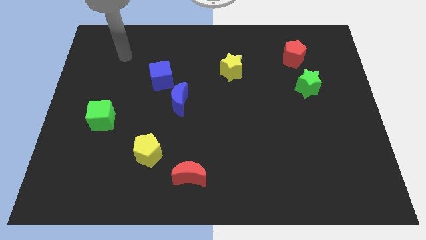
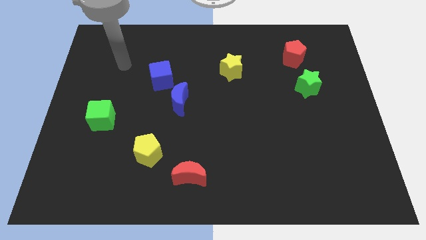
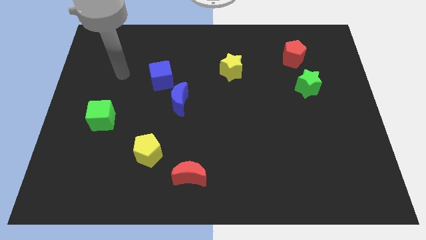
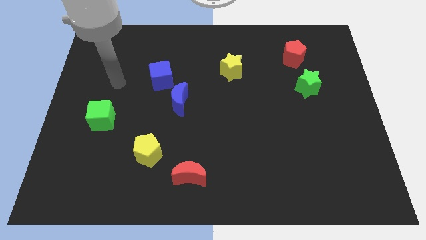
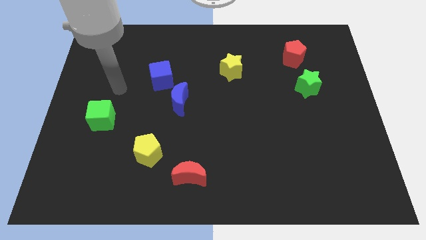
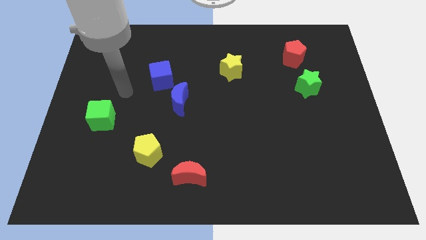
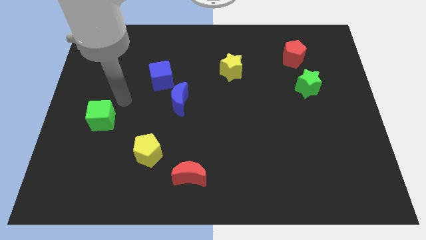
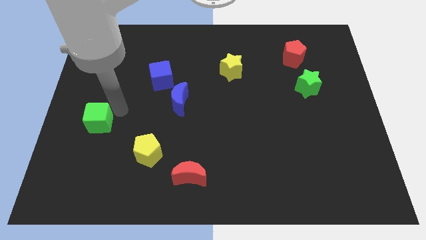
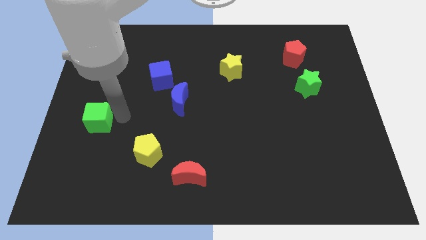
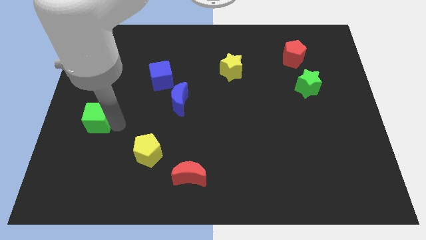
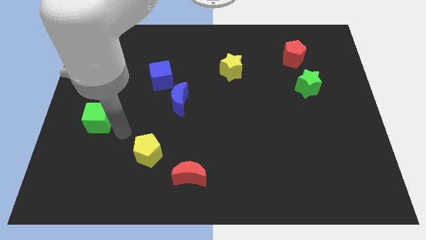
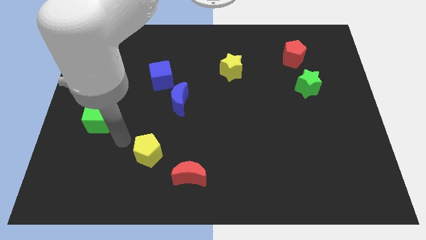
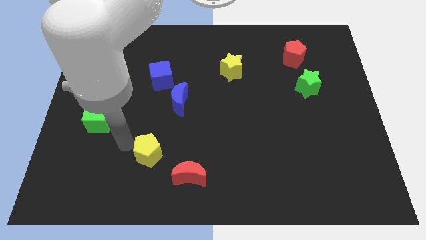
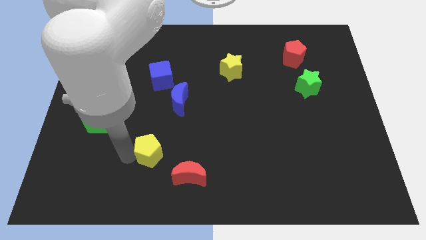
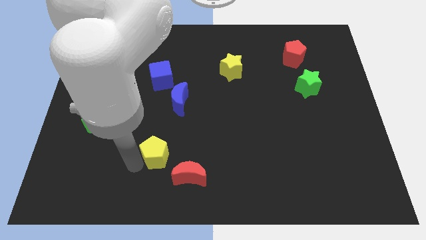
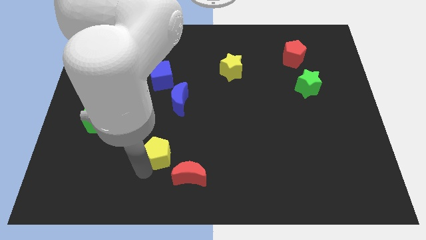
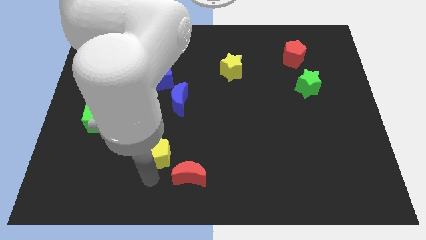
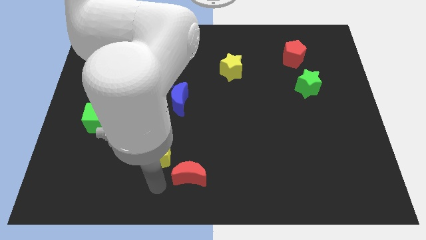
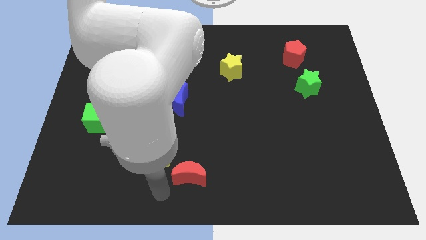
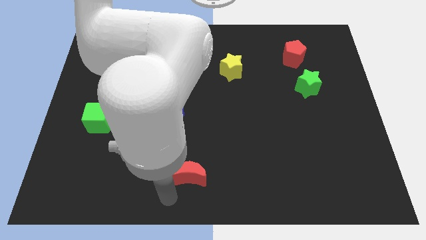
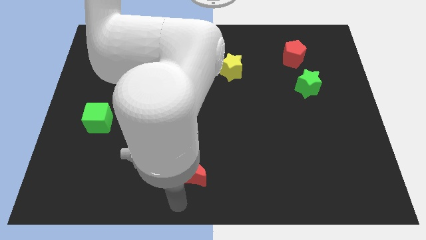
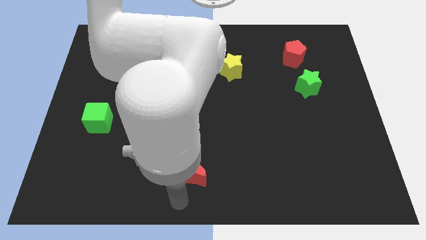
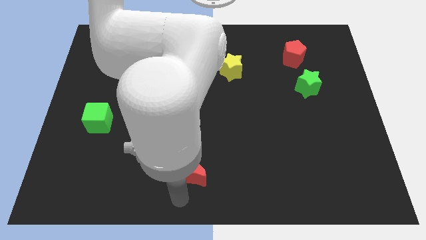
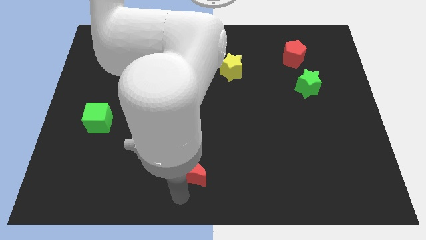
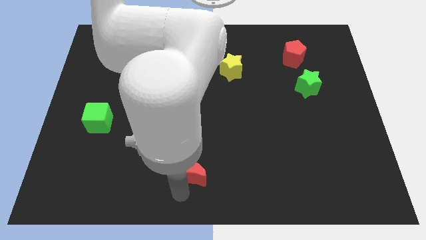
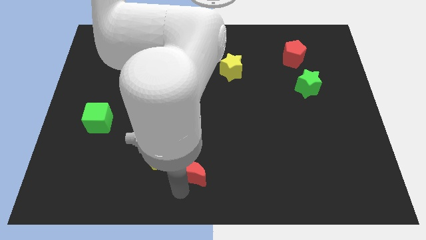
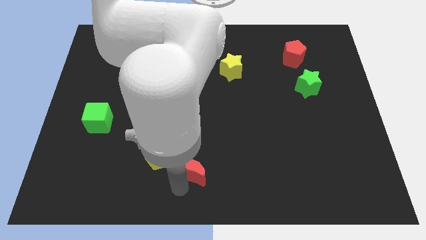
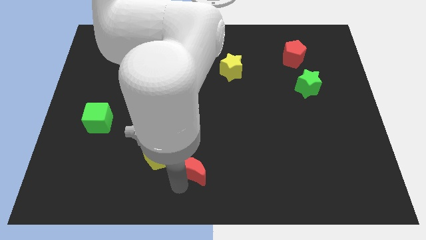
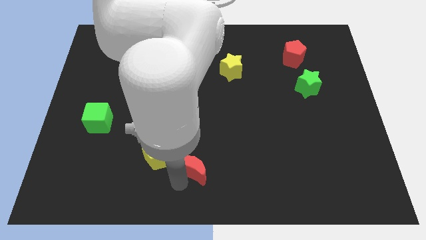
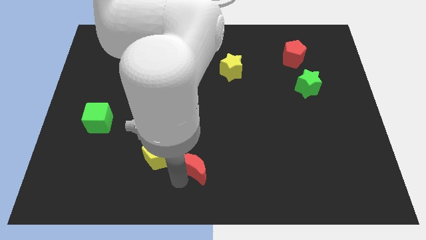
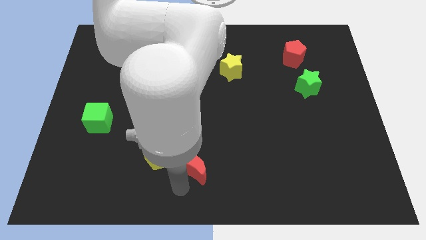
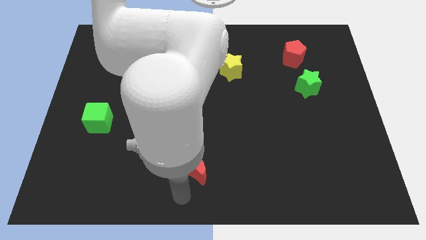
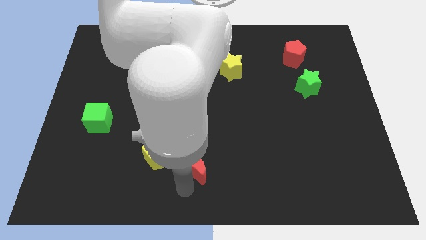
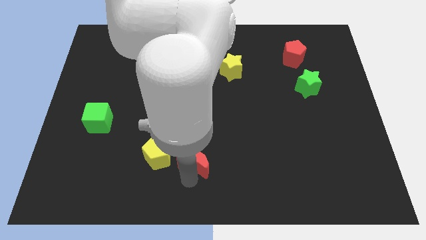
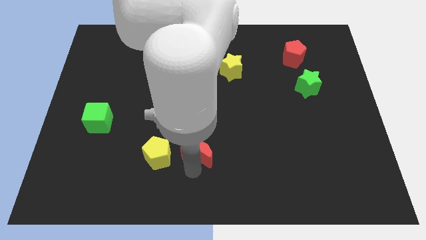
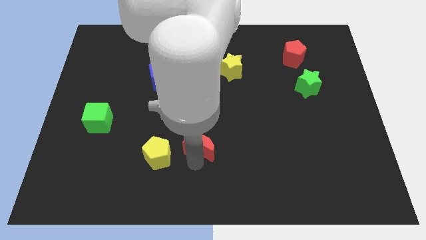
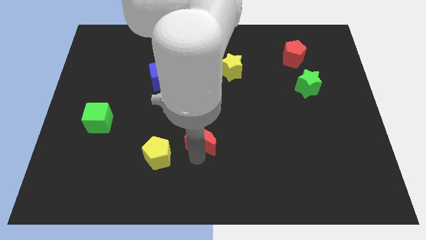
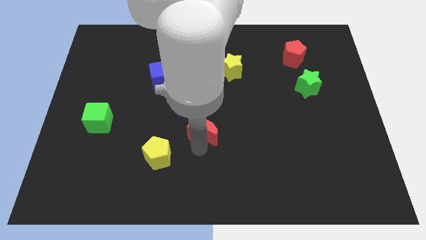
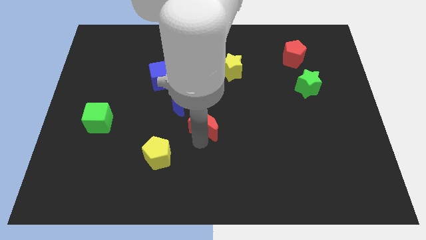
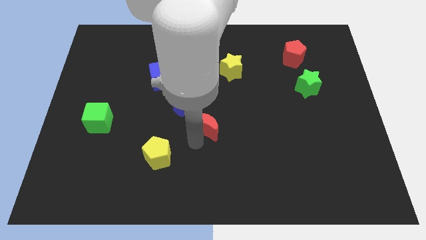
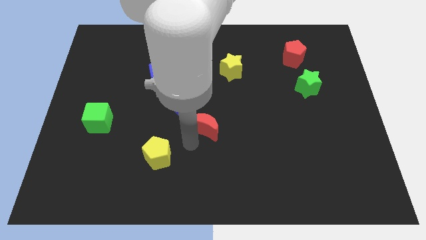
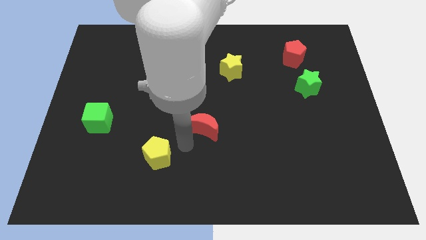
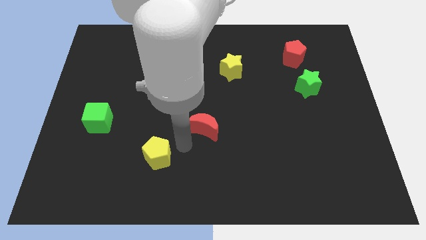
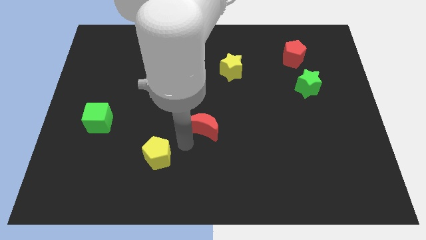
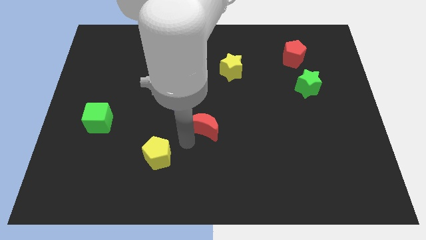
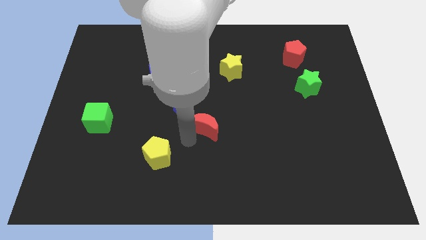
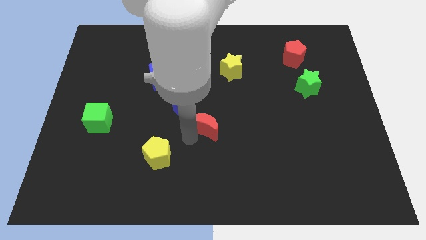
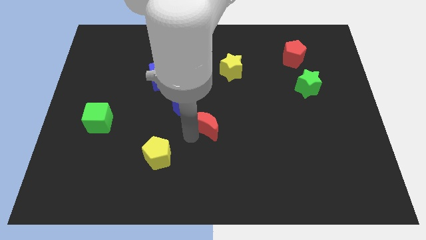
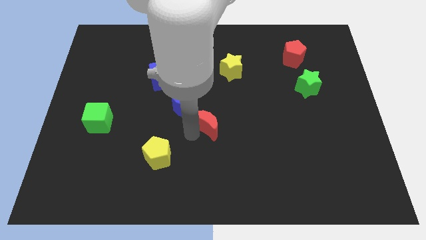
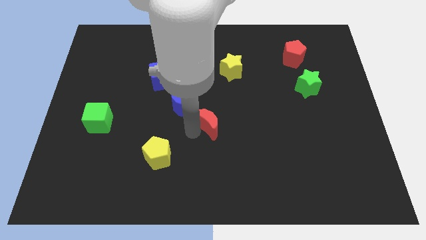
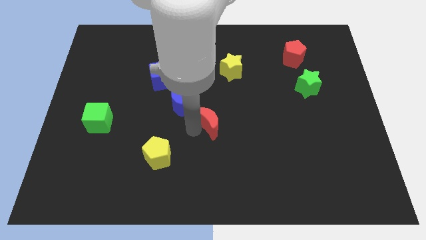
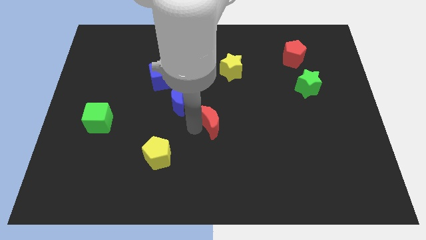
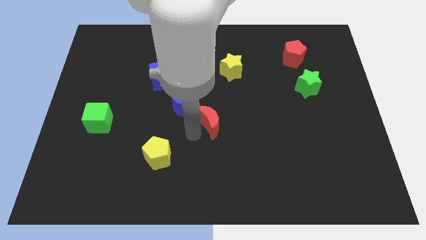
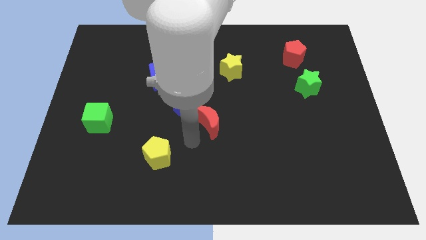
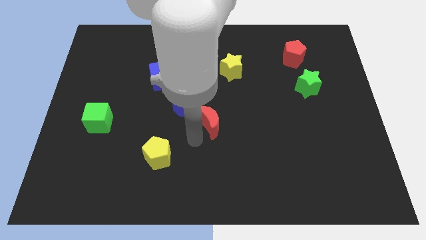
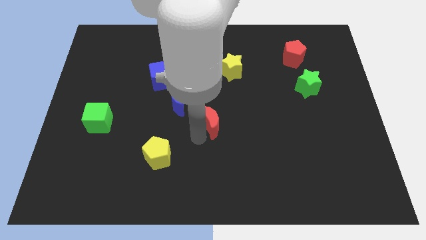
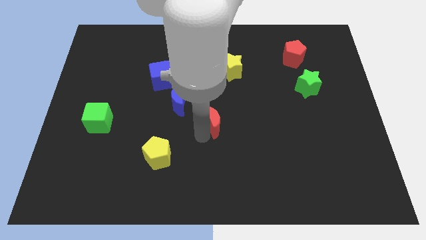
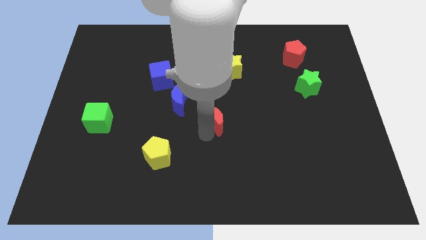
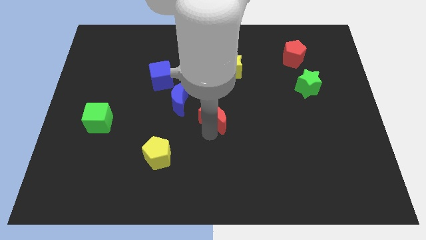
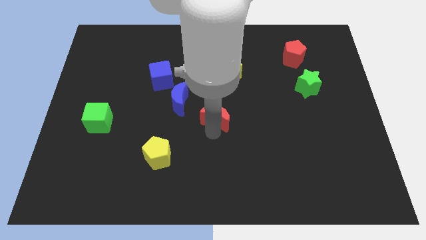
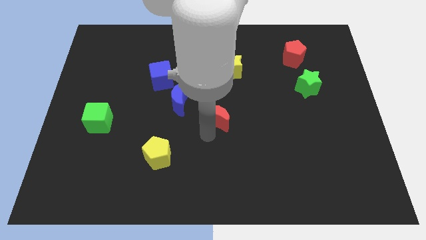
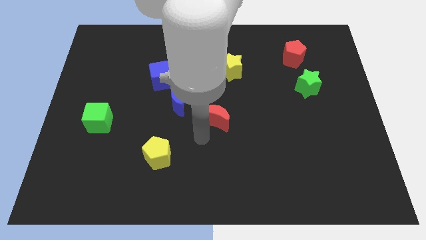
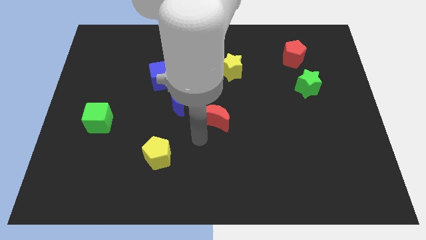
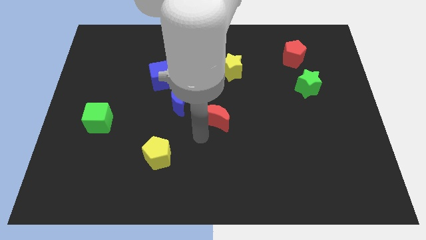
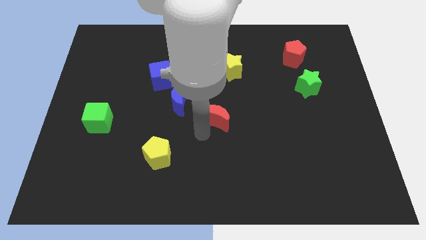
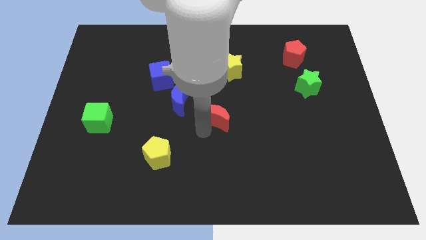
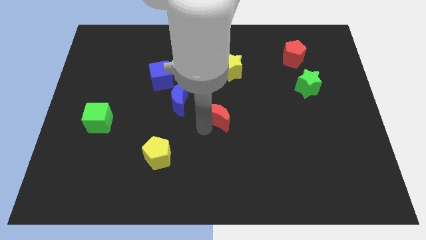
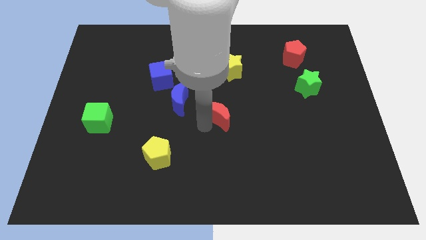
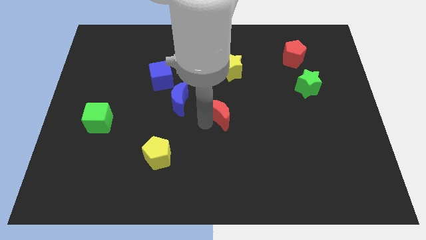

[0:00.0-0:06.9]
move the red moon below the yellow star

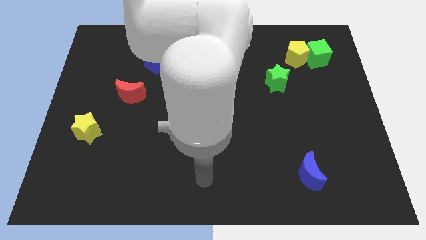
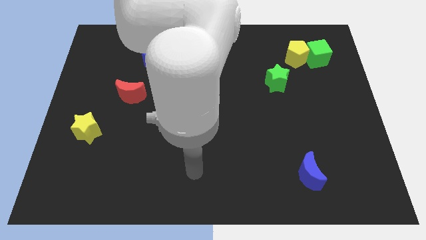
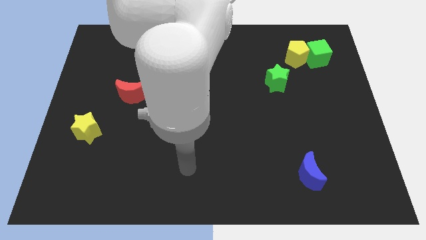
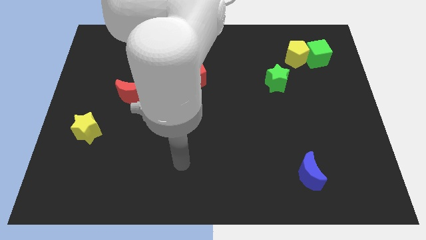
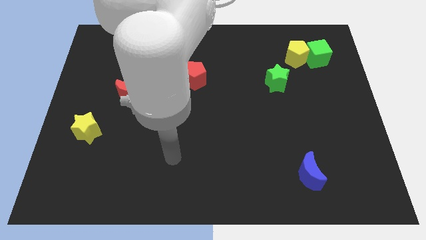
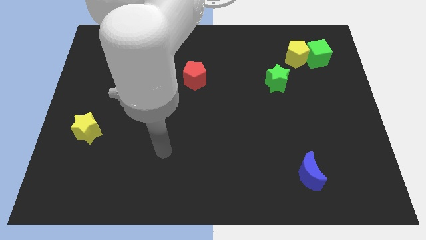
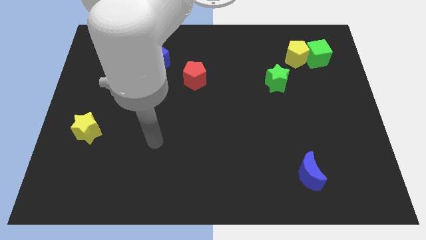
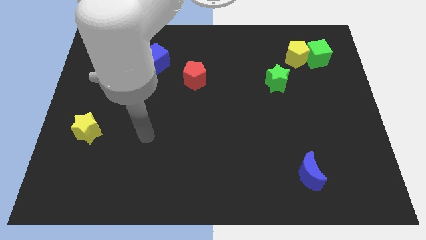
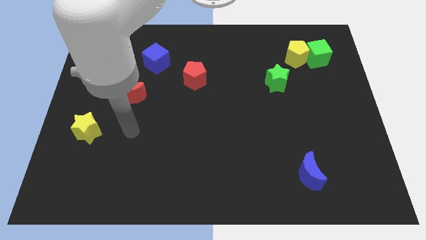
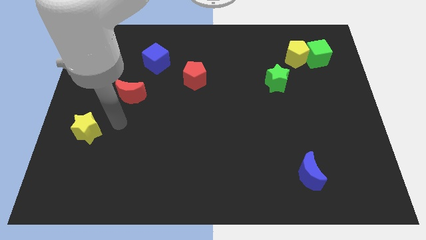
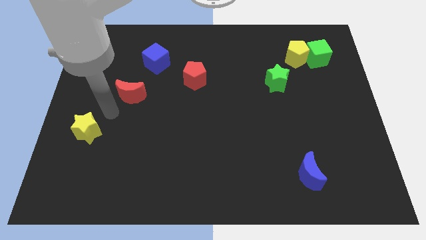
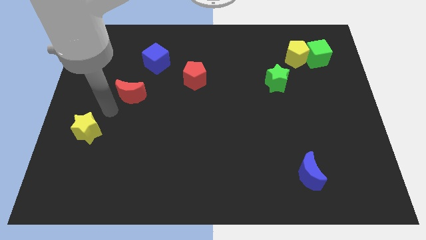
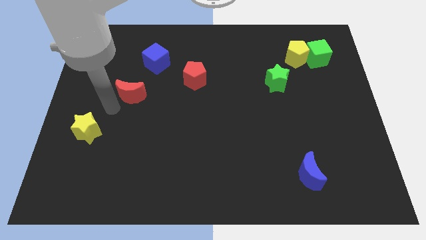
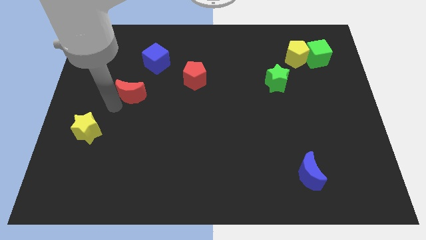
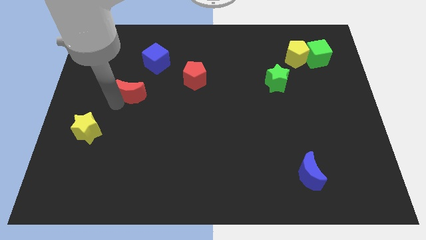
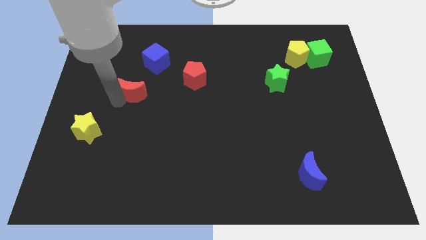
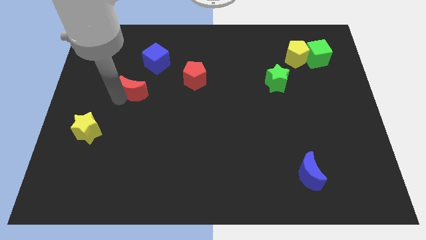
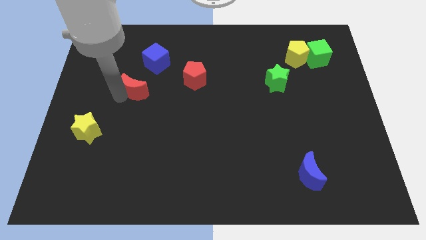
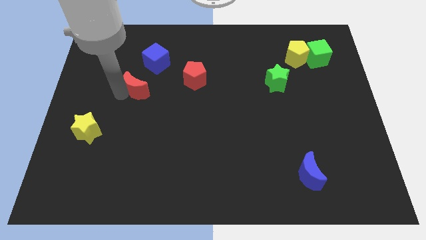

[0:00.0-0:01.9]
slide the red moon to the left of the red pentagon
